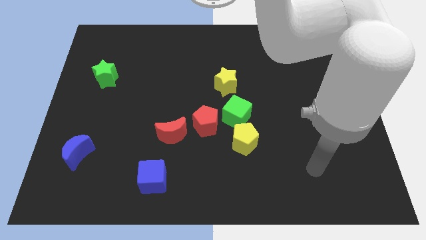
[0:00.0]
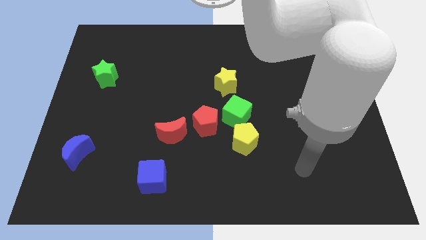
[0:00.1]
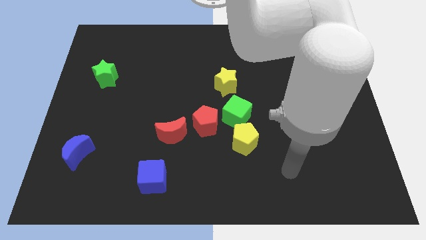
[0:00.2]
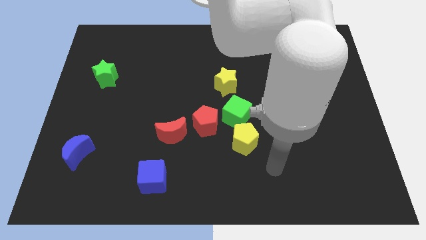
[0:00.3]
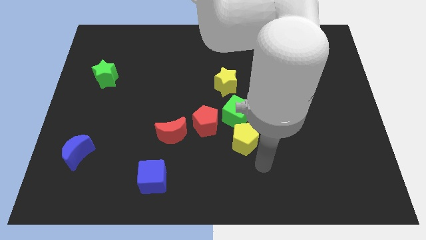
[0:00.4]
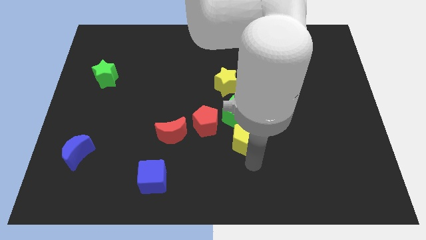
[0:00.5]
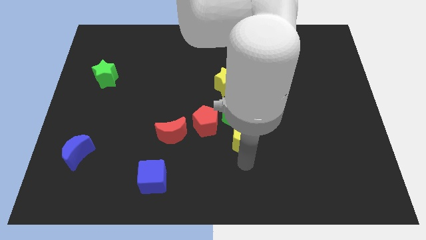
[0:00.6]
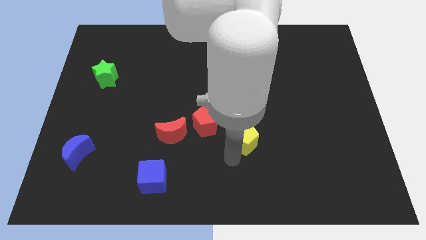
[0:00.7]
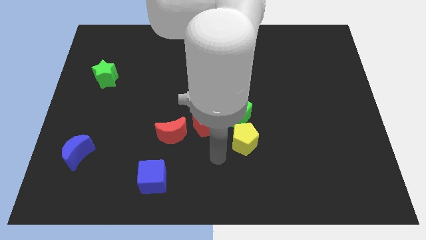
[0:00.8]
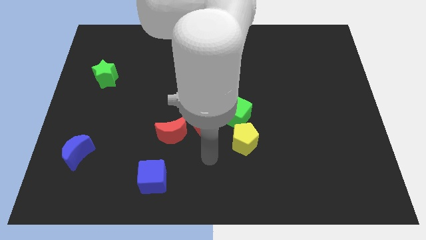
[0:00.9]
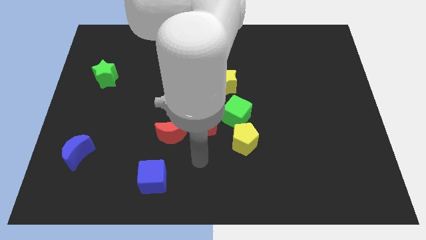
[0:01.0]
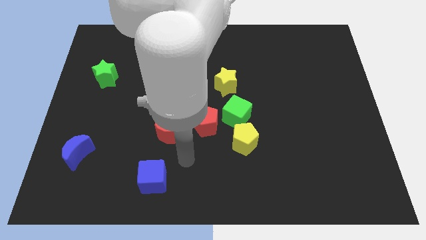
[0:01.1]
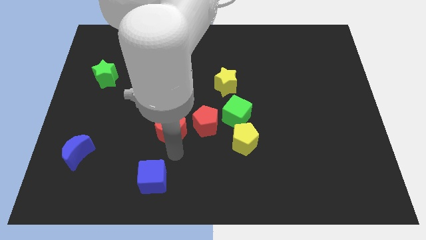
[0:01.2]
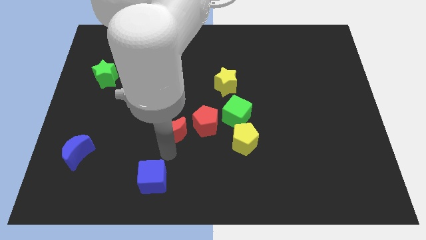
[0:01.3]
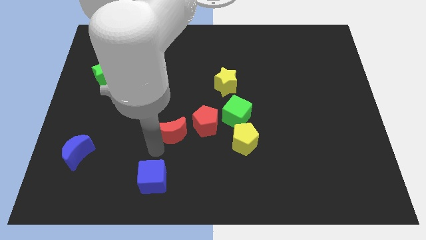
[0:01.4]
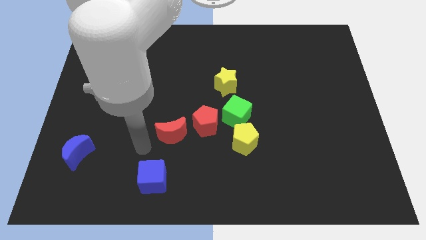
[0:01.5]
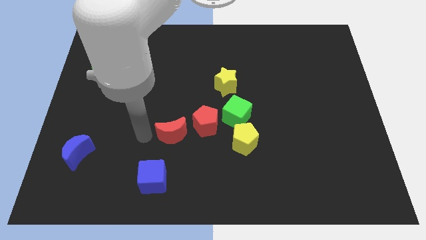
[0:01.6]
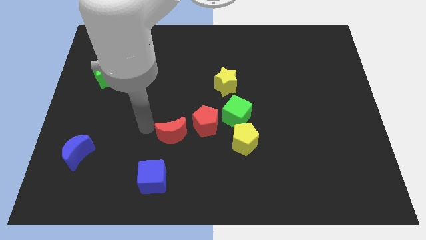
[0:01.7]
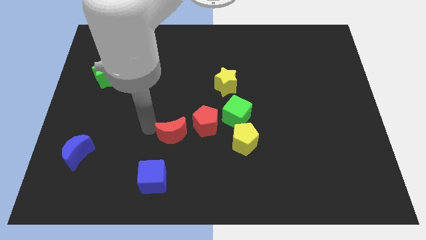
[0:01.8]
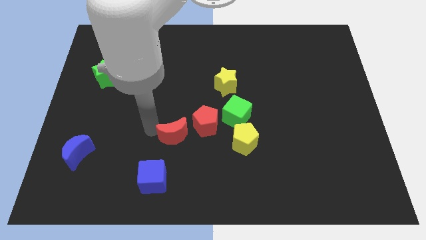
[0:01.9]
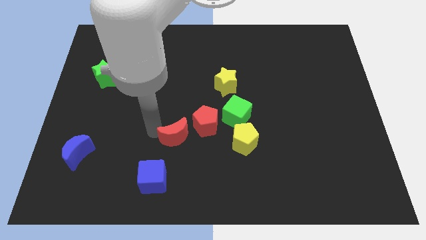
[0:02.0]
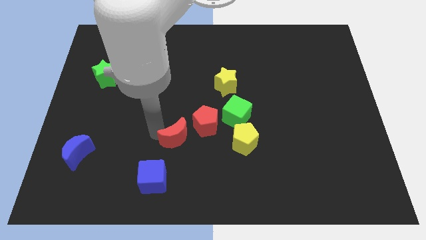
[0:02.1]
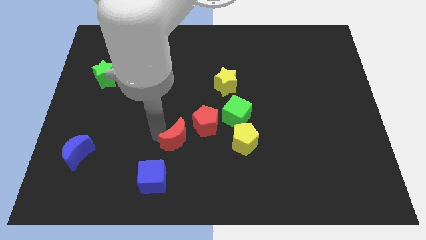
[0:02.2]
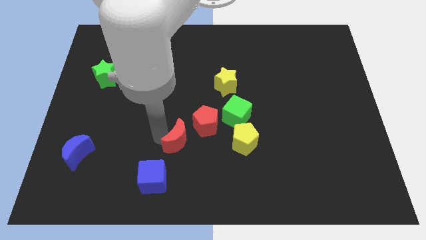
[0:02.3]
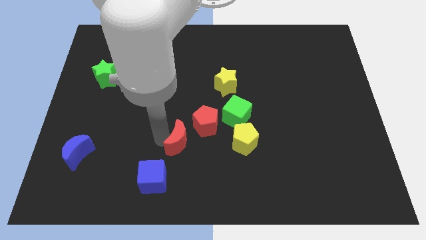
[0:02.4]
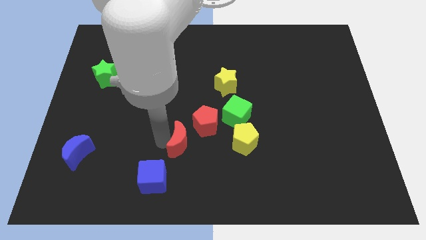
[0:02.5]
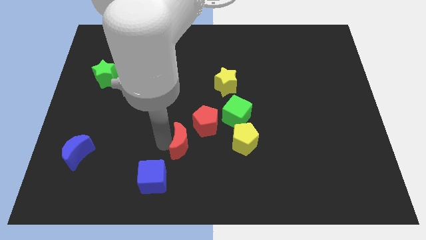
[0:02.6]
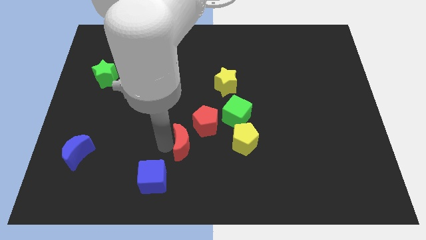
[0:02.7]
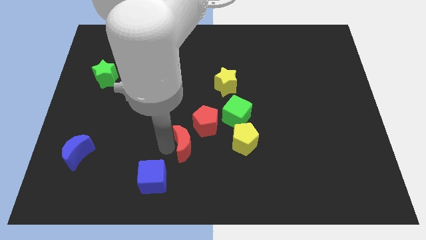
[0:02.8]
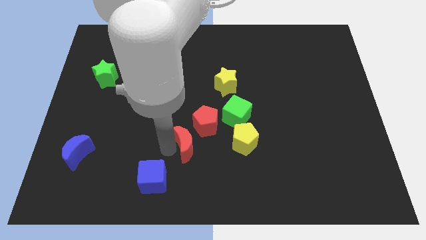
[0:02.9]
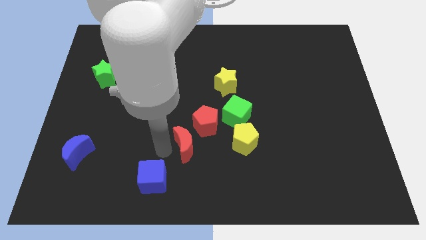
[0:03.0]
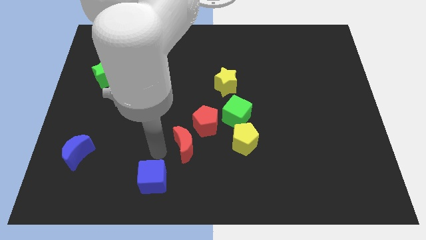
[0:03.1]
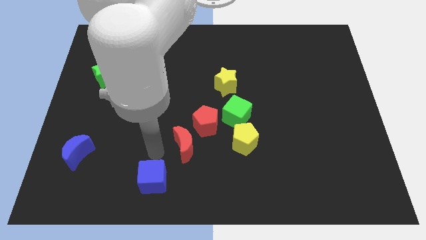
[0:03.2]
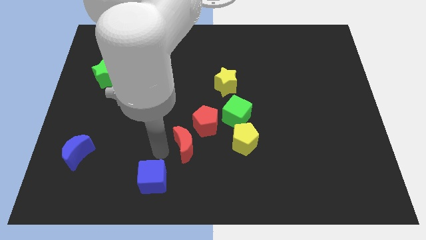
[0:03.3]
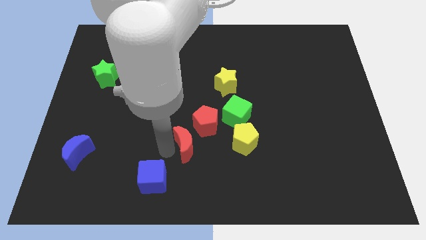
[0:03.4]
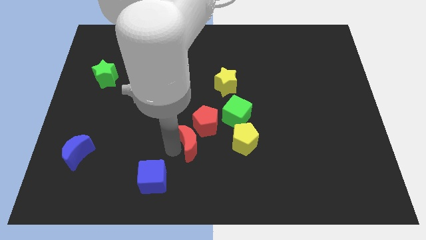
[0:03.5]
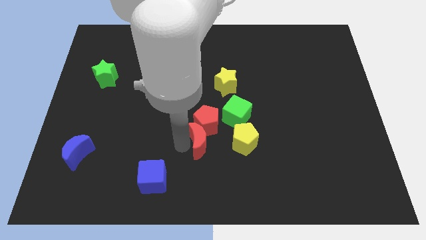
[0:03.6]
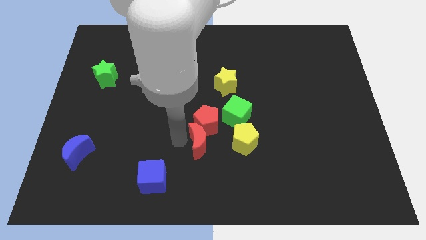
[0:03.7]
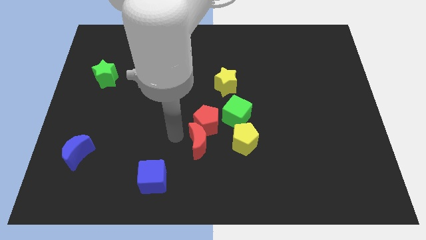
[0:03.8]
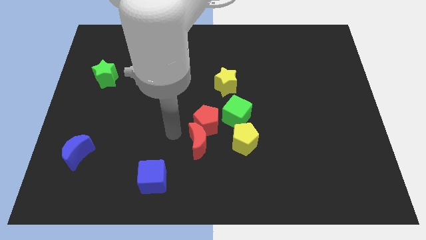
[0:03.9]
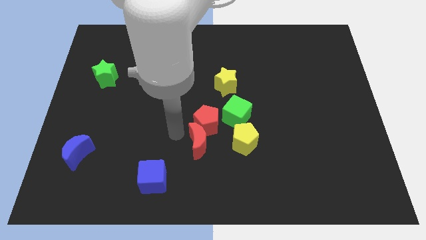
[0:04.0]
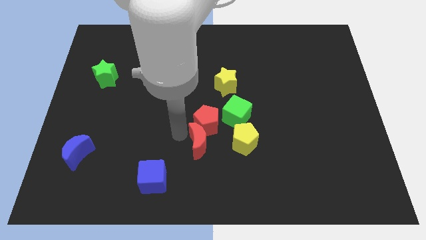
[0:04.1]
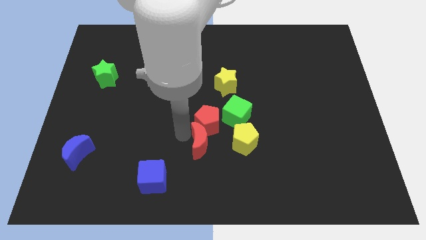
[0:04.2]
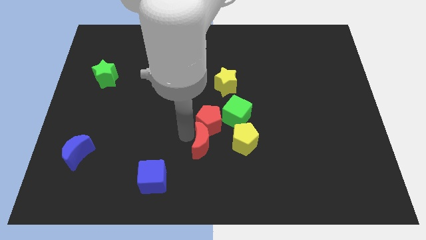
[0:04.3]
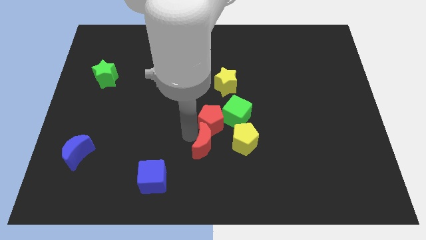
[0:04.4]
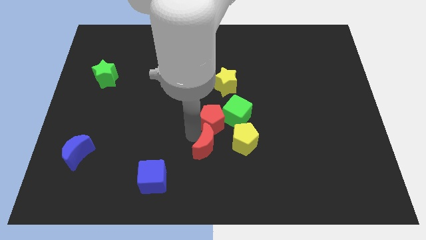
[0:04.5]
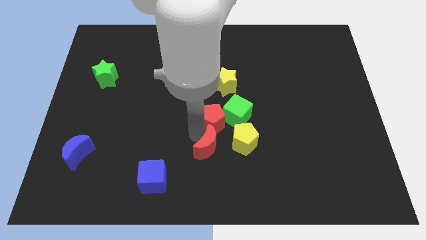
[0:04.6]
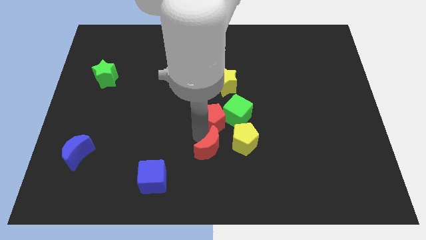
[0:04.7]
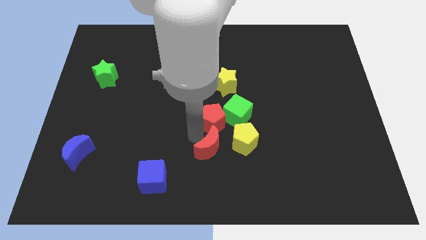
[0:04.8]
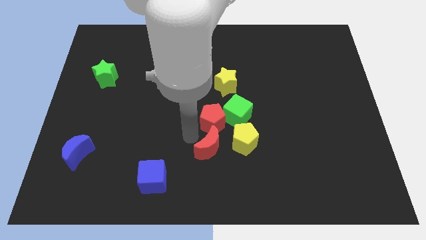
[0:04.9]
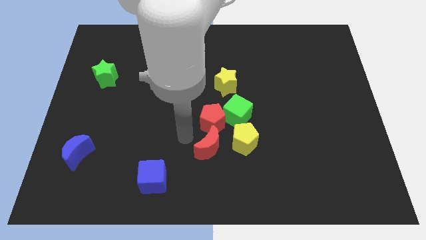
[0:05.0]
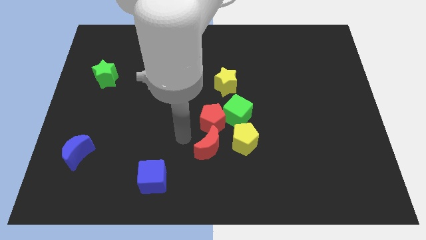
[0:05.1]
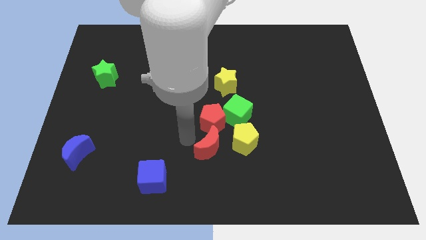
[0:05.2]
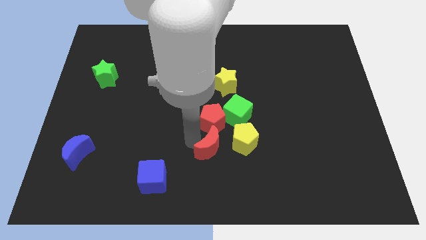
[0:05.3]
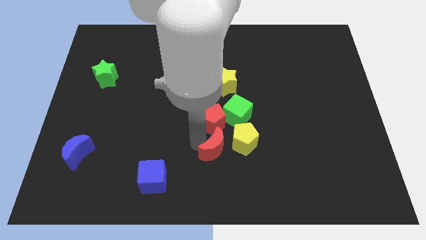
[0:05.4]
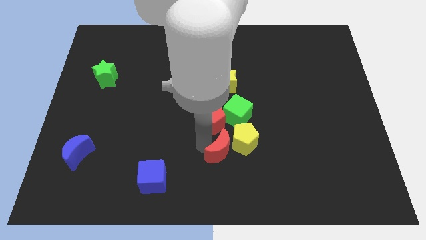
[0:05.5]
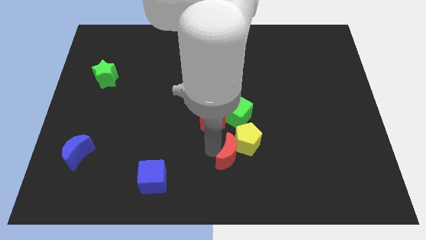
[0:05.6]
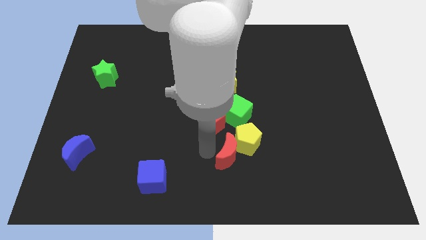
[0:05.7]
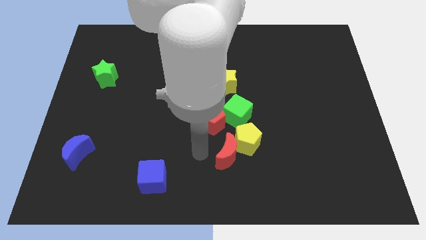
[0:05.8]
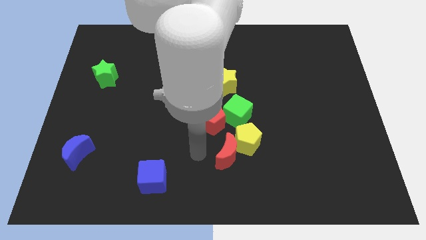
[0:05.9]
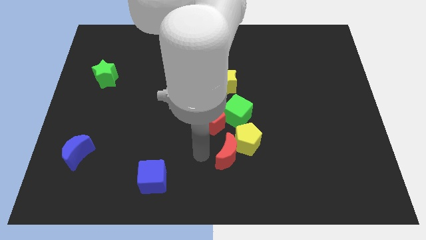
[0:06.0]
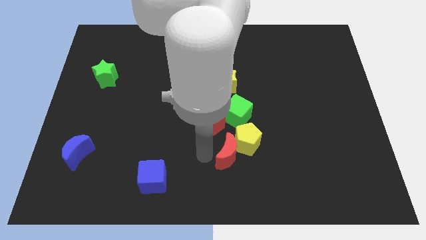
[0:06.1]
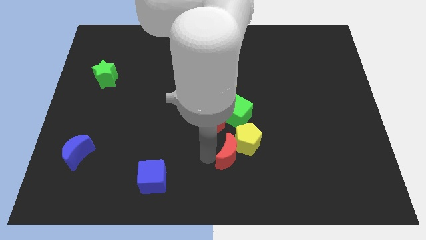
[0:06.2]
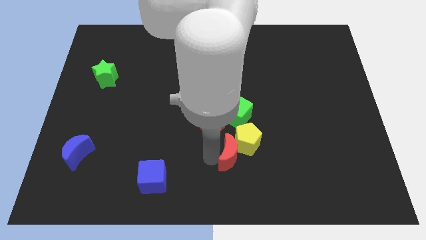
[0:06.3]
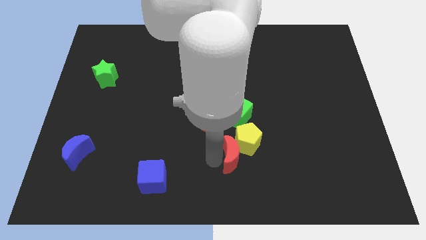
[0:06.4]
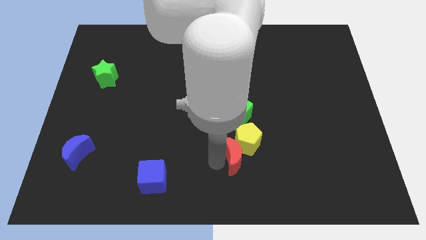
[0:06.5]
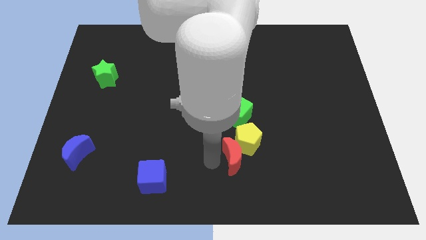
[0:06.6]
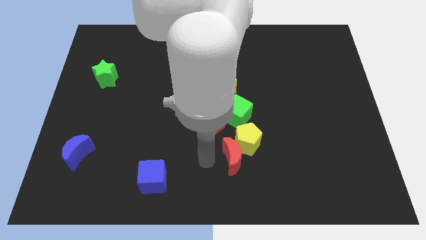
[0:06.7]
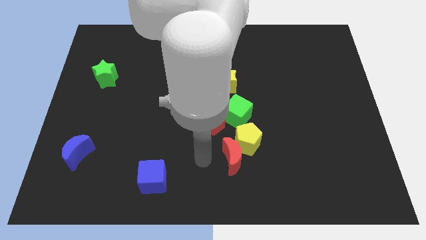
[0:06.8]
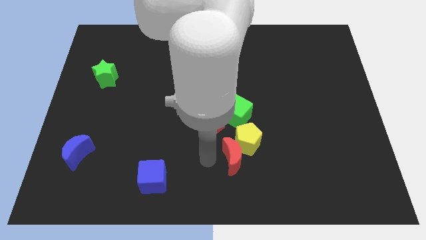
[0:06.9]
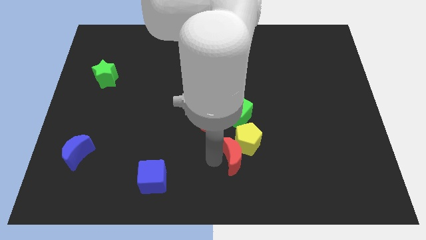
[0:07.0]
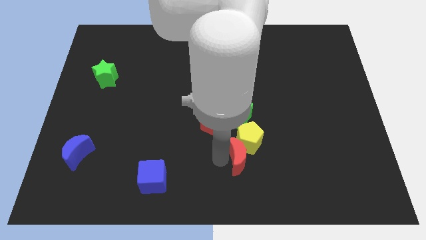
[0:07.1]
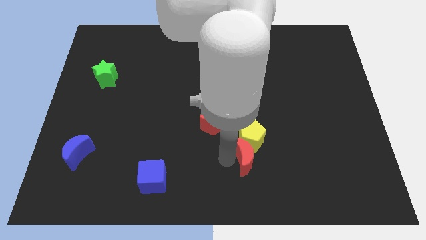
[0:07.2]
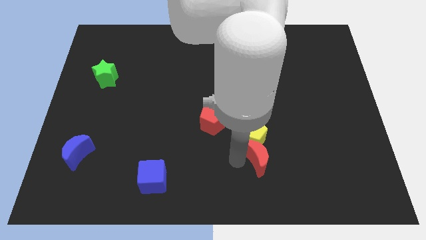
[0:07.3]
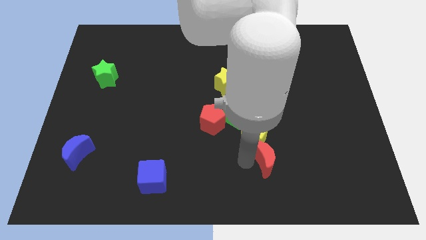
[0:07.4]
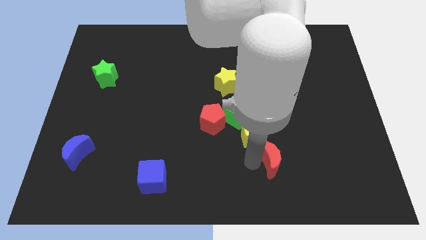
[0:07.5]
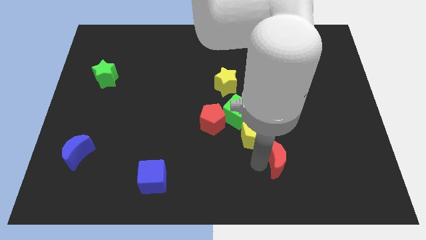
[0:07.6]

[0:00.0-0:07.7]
push the red moon right

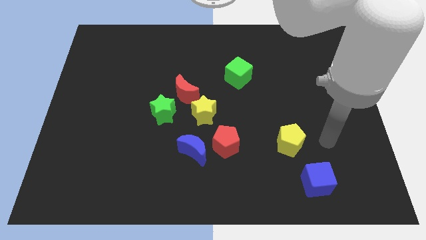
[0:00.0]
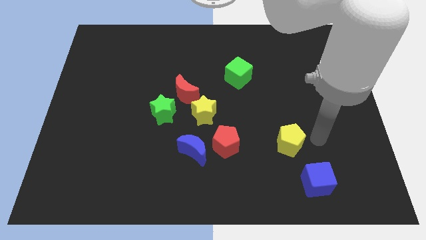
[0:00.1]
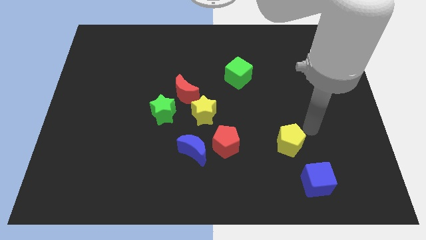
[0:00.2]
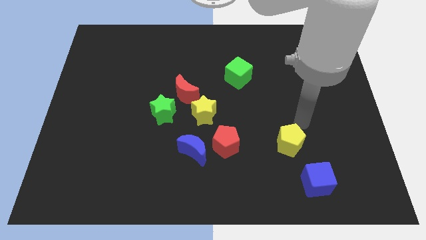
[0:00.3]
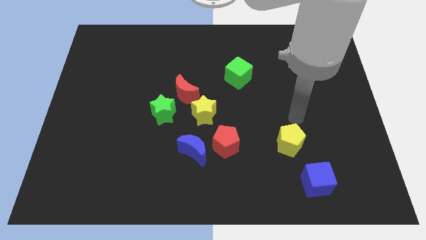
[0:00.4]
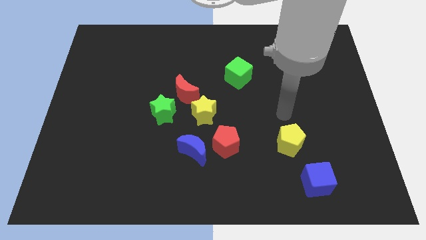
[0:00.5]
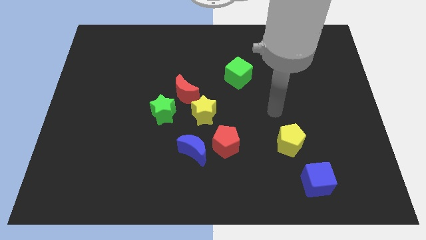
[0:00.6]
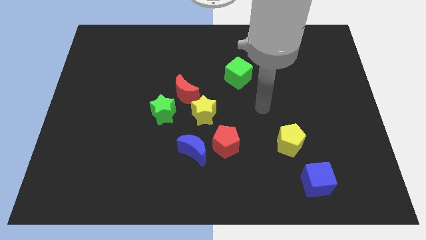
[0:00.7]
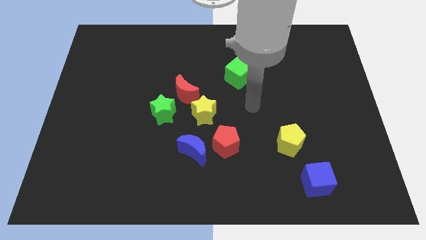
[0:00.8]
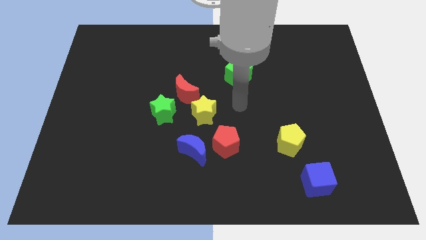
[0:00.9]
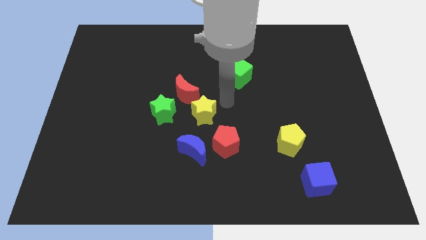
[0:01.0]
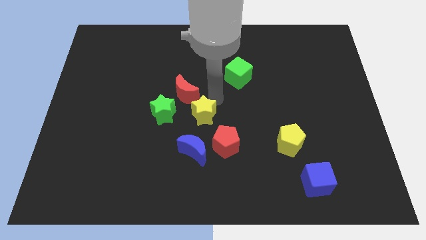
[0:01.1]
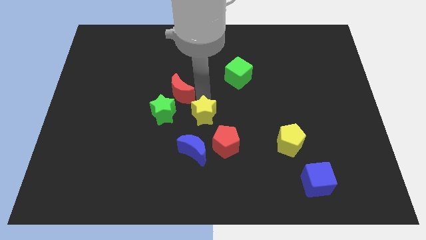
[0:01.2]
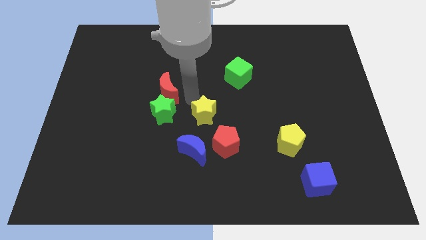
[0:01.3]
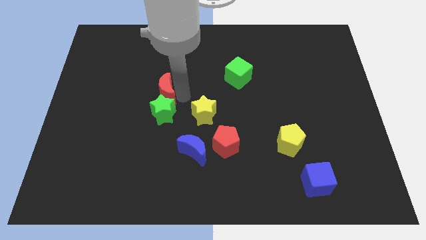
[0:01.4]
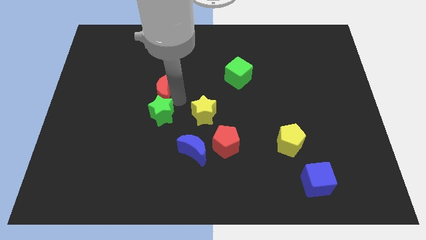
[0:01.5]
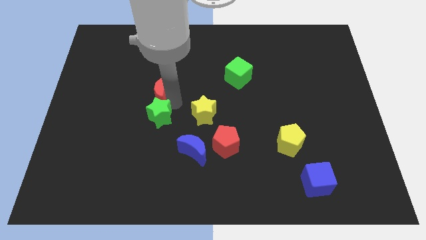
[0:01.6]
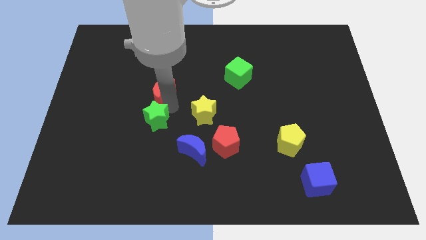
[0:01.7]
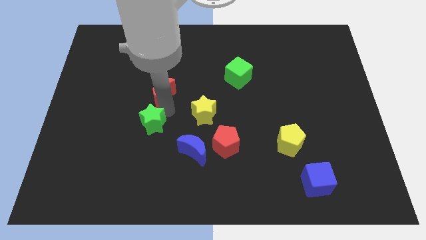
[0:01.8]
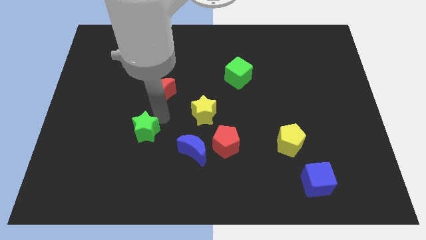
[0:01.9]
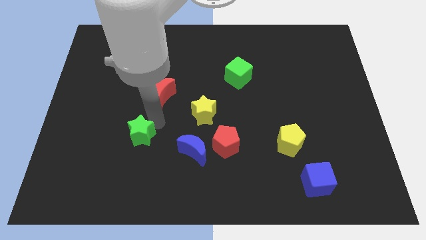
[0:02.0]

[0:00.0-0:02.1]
slightly move the green star downwards and left
